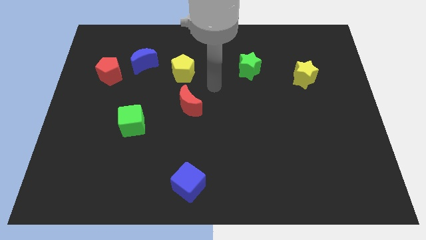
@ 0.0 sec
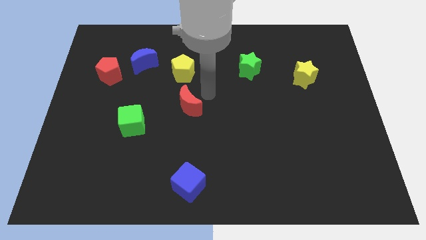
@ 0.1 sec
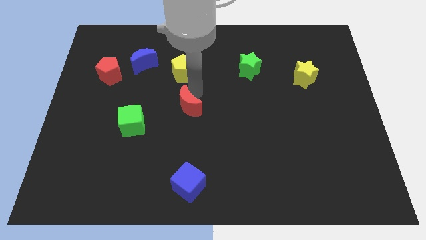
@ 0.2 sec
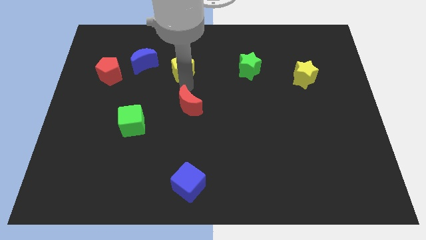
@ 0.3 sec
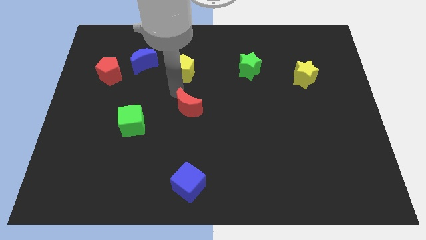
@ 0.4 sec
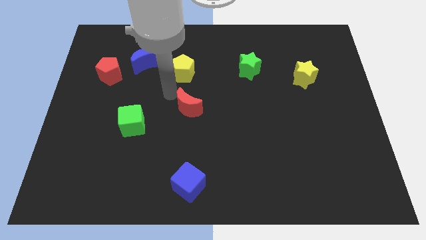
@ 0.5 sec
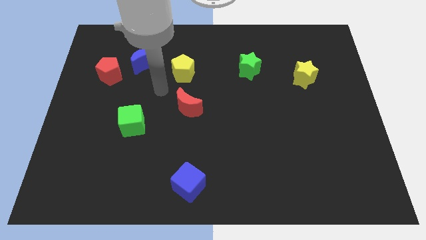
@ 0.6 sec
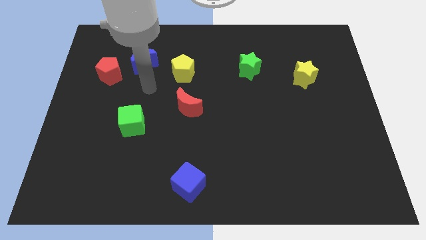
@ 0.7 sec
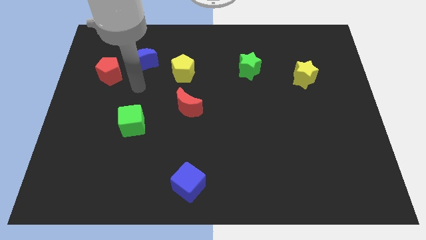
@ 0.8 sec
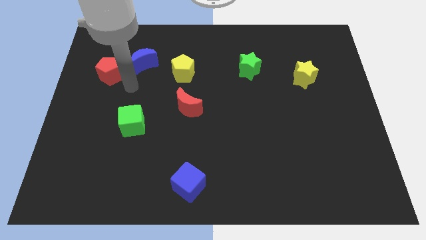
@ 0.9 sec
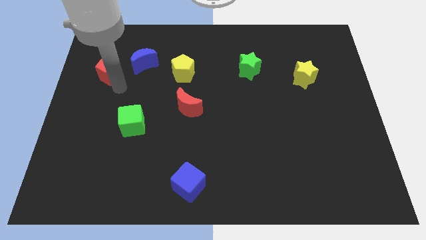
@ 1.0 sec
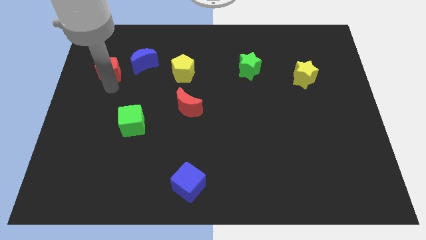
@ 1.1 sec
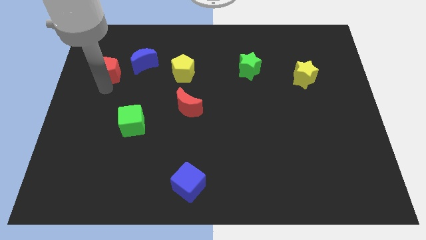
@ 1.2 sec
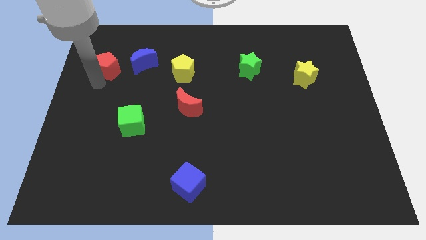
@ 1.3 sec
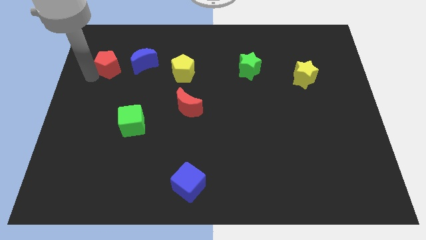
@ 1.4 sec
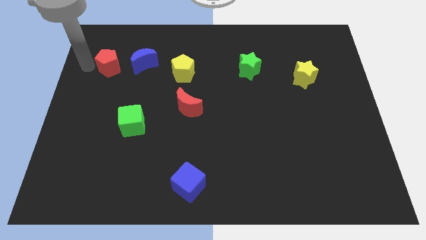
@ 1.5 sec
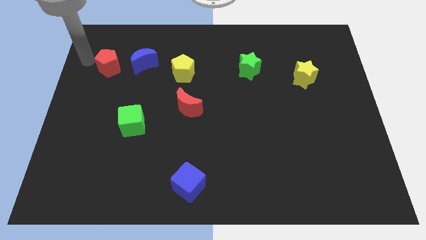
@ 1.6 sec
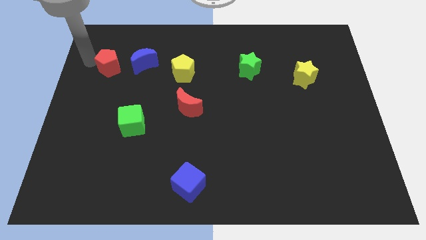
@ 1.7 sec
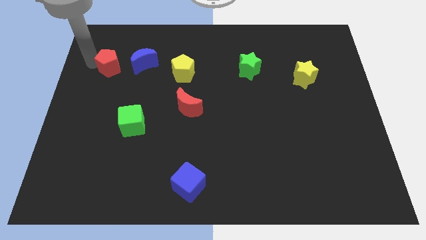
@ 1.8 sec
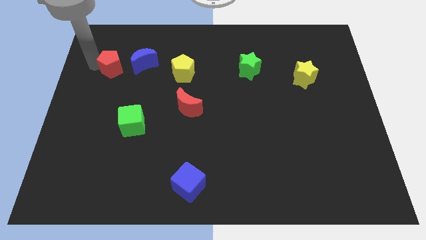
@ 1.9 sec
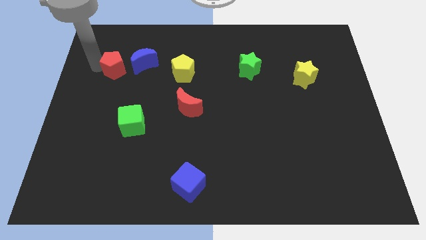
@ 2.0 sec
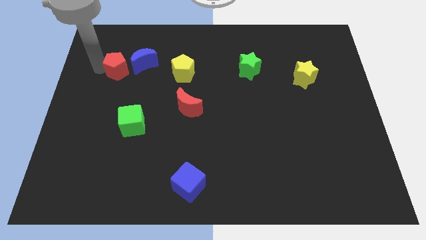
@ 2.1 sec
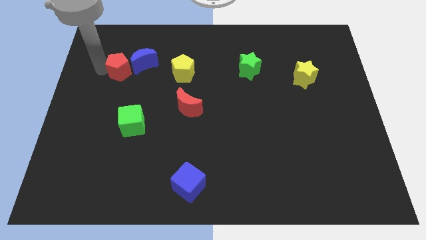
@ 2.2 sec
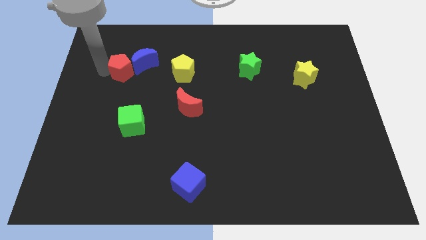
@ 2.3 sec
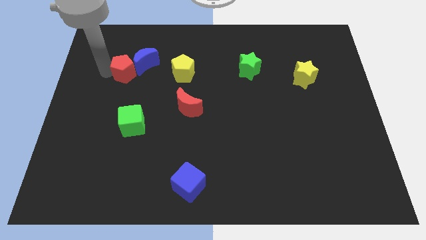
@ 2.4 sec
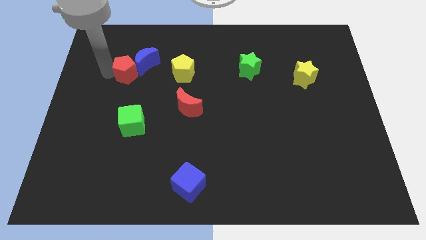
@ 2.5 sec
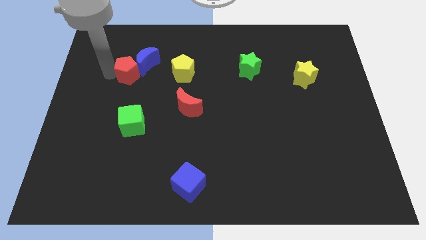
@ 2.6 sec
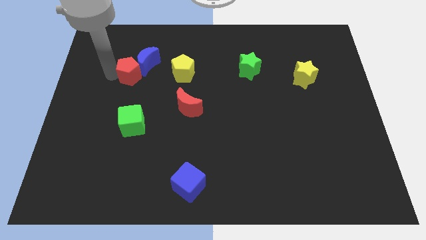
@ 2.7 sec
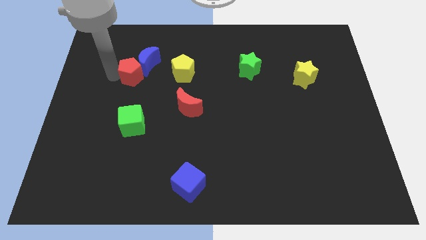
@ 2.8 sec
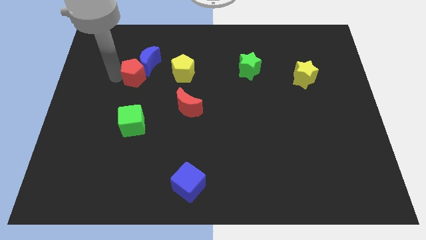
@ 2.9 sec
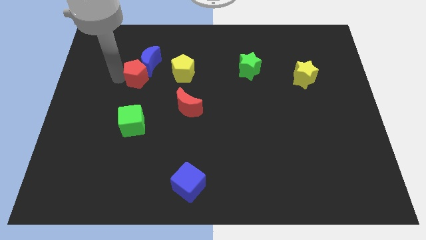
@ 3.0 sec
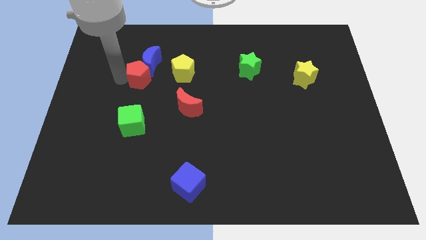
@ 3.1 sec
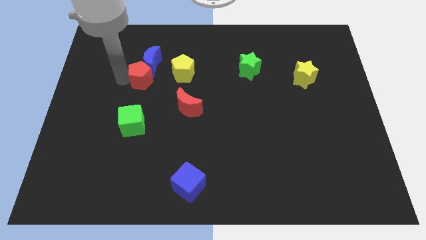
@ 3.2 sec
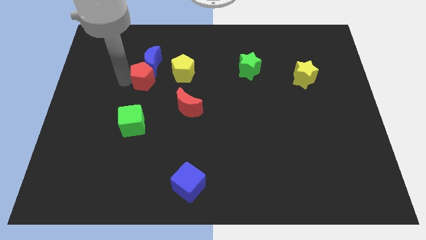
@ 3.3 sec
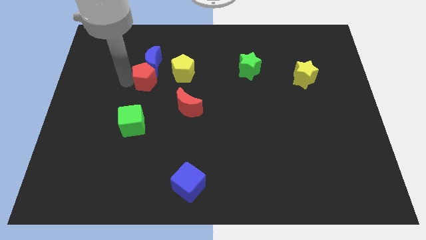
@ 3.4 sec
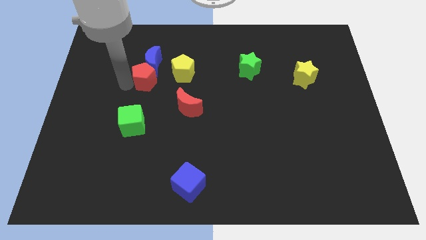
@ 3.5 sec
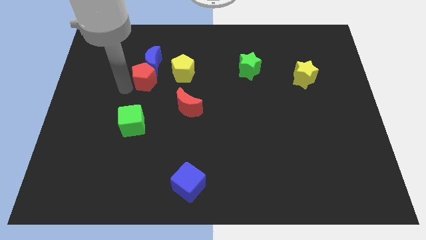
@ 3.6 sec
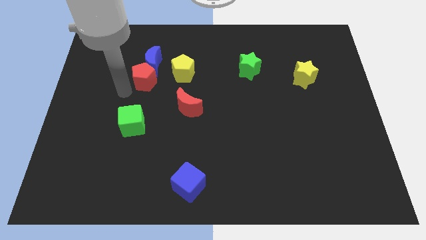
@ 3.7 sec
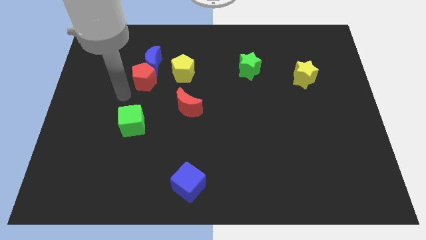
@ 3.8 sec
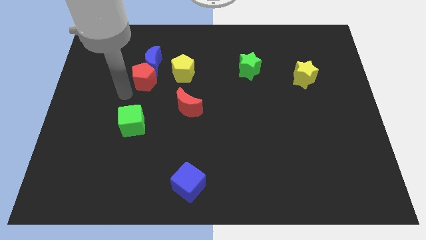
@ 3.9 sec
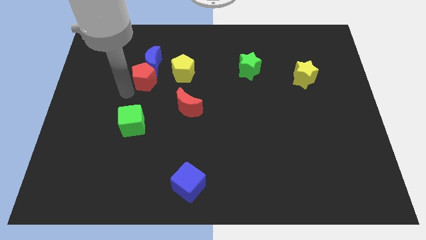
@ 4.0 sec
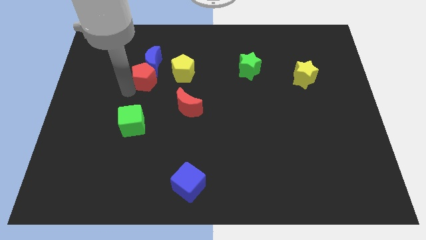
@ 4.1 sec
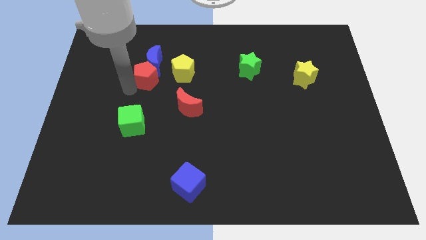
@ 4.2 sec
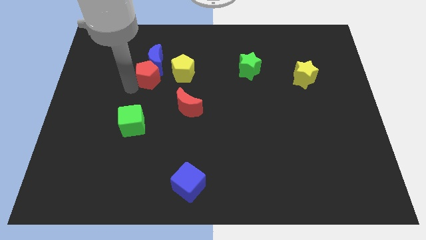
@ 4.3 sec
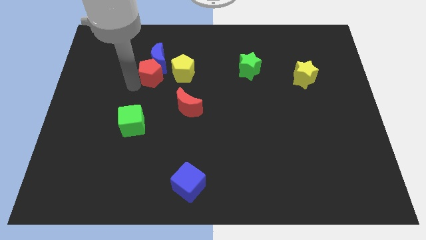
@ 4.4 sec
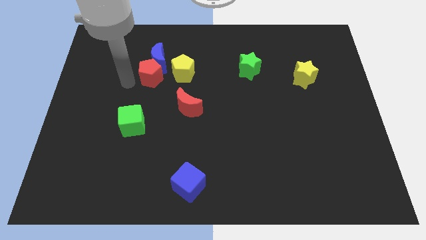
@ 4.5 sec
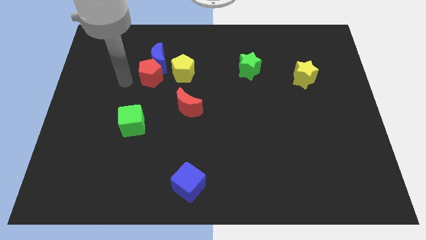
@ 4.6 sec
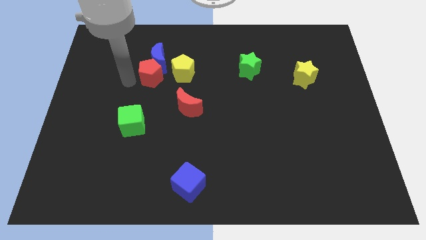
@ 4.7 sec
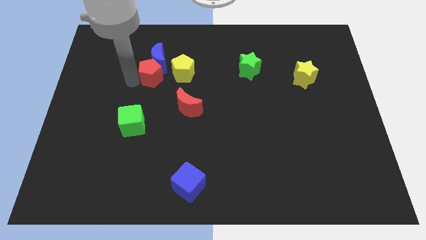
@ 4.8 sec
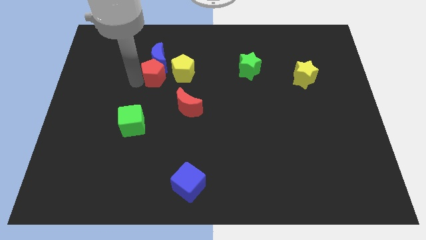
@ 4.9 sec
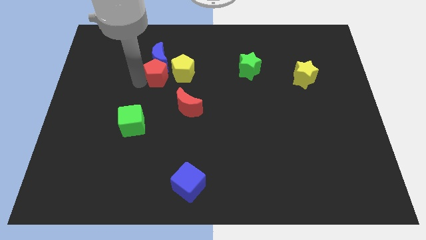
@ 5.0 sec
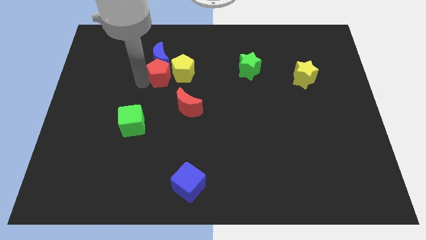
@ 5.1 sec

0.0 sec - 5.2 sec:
slide the red pentagon to the yellow pentagon

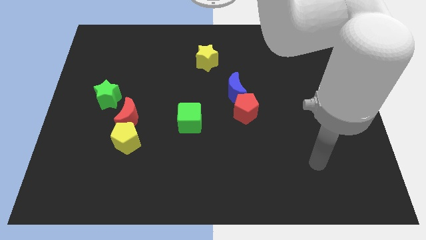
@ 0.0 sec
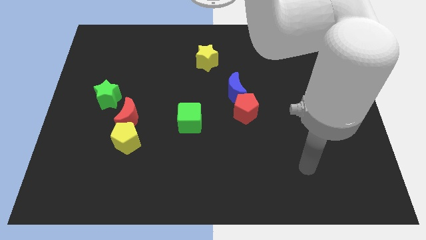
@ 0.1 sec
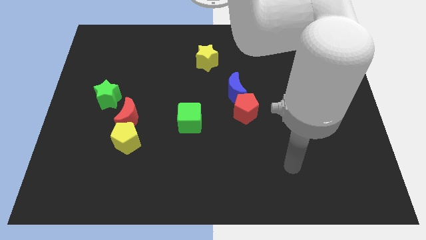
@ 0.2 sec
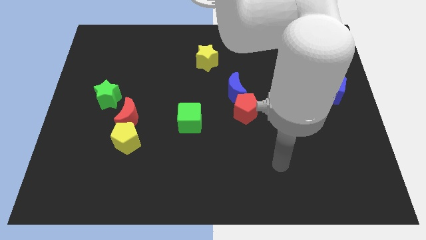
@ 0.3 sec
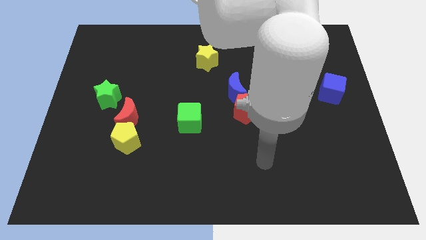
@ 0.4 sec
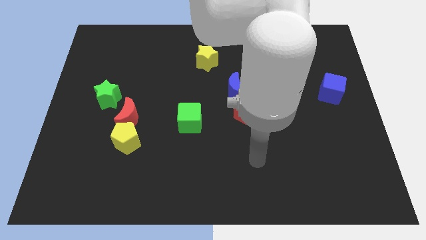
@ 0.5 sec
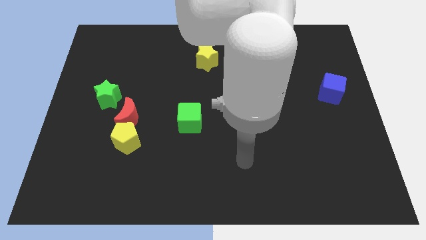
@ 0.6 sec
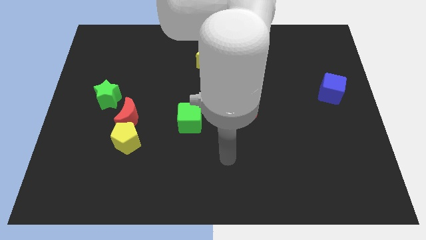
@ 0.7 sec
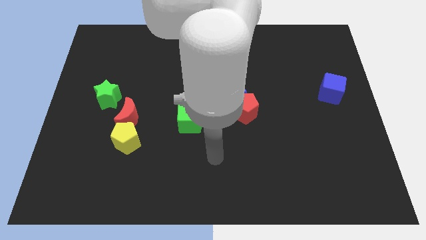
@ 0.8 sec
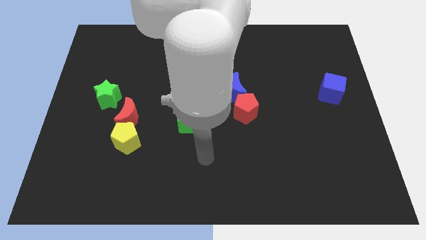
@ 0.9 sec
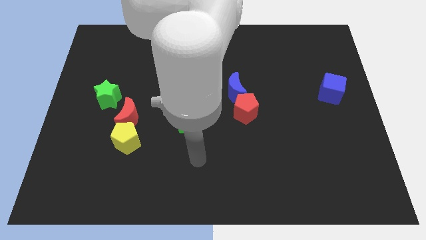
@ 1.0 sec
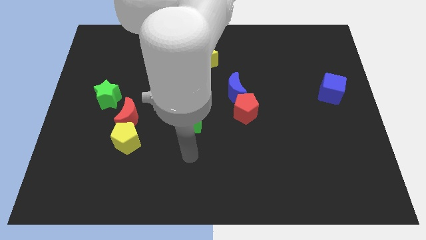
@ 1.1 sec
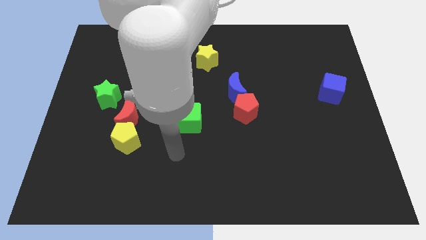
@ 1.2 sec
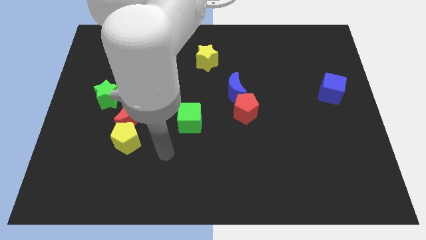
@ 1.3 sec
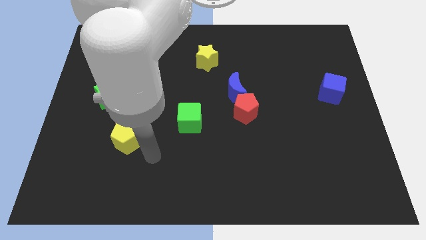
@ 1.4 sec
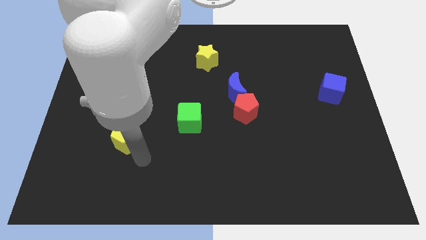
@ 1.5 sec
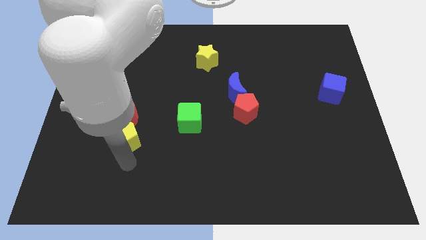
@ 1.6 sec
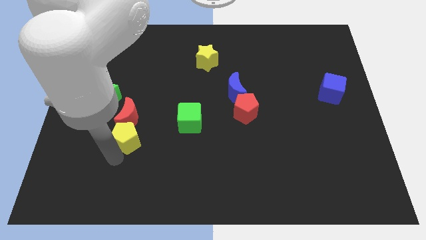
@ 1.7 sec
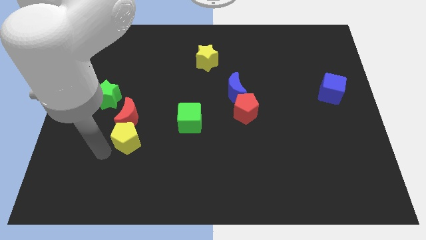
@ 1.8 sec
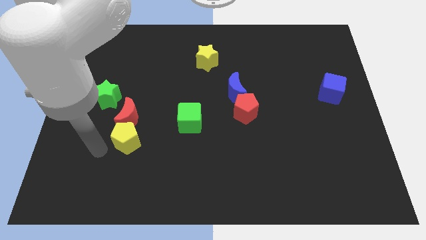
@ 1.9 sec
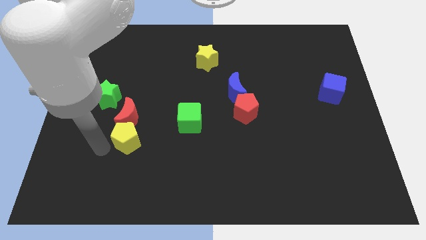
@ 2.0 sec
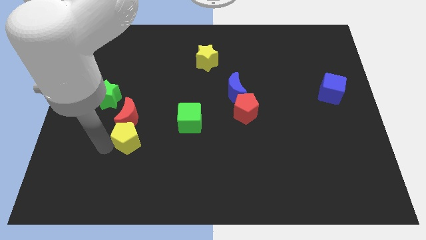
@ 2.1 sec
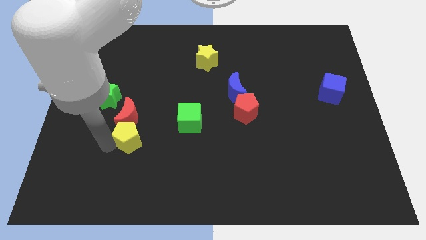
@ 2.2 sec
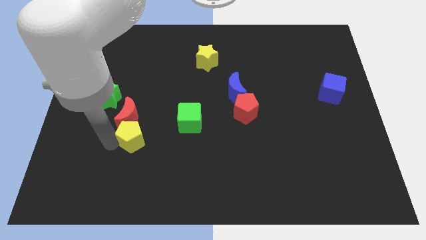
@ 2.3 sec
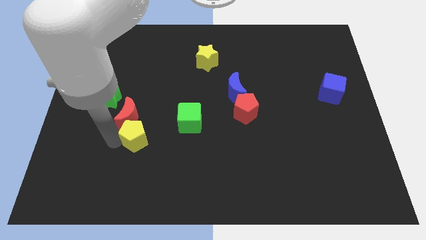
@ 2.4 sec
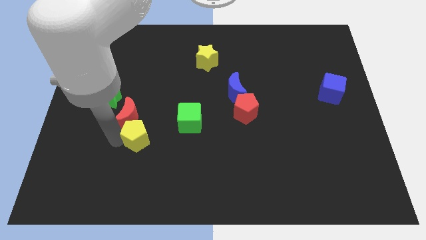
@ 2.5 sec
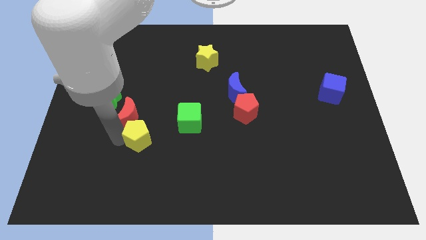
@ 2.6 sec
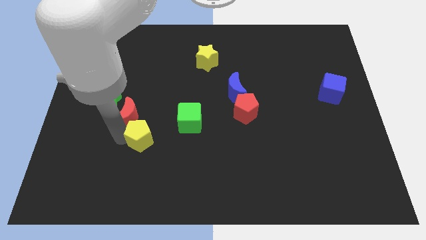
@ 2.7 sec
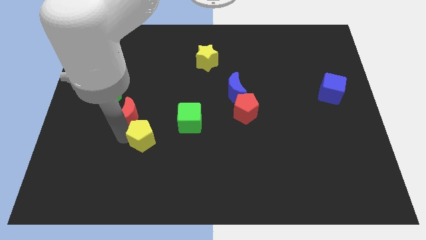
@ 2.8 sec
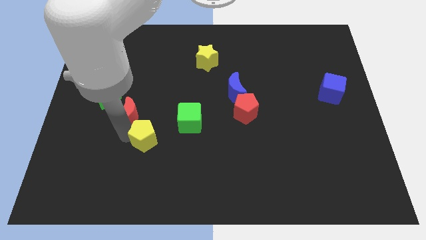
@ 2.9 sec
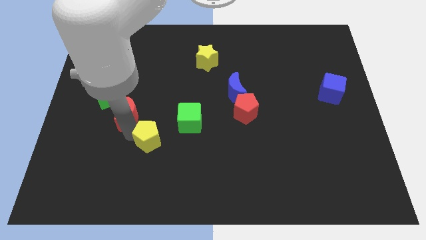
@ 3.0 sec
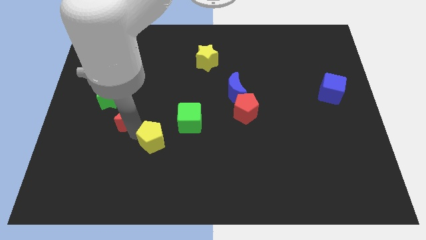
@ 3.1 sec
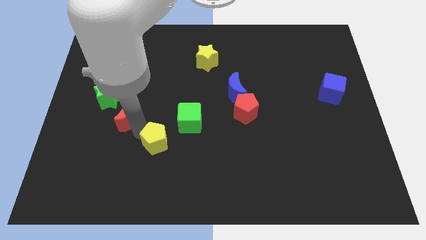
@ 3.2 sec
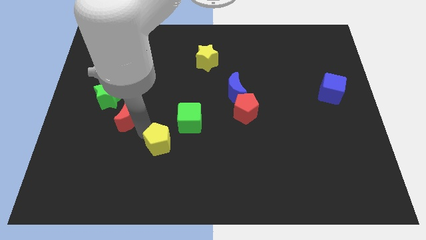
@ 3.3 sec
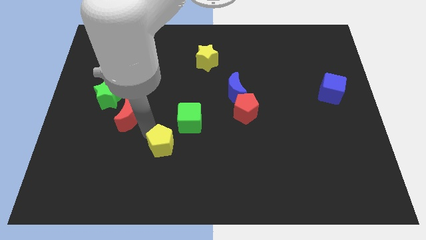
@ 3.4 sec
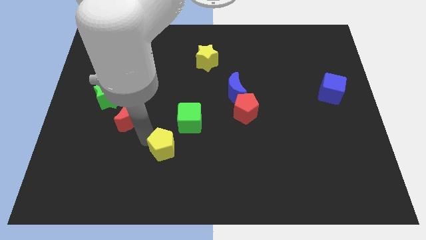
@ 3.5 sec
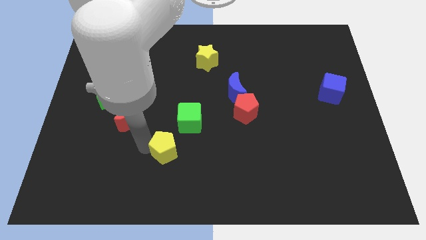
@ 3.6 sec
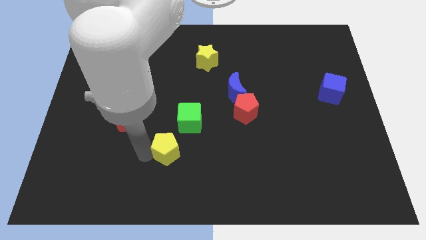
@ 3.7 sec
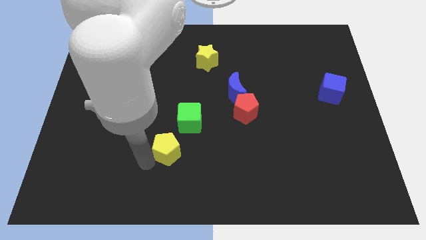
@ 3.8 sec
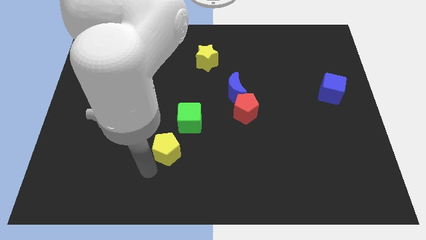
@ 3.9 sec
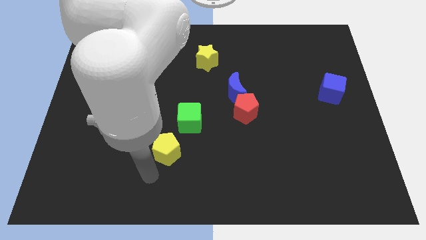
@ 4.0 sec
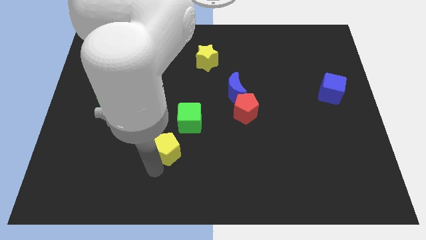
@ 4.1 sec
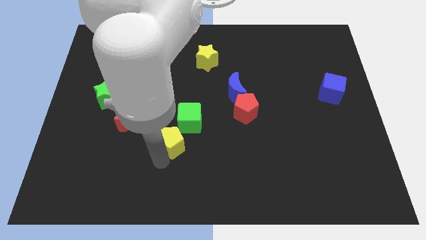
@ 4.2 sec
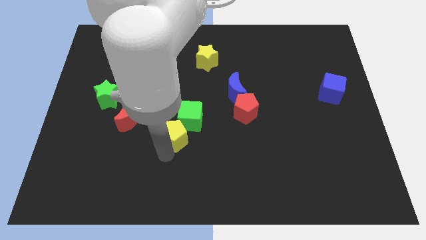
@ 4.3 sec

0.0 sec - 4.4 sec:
move the yellow pentagon next to the green cube
